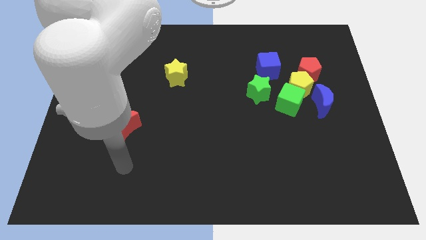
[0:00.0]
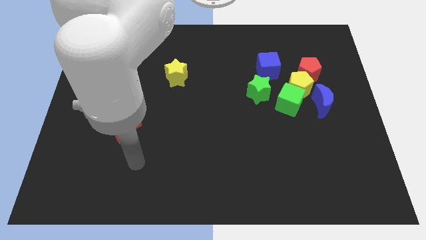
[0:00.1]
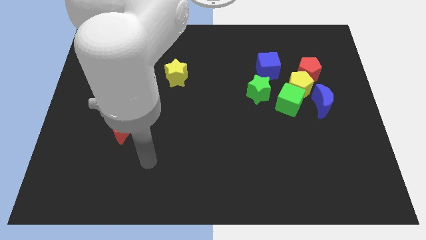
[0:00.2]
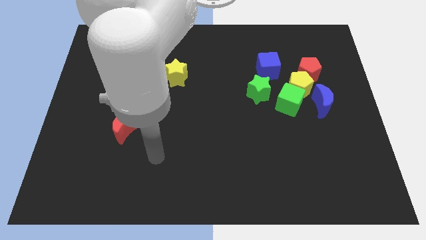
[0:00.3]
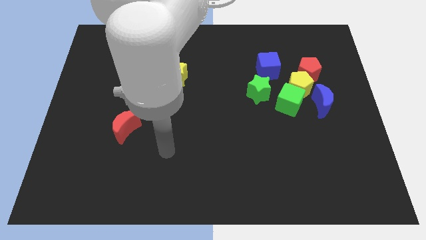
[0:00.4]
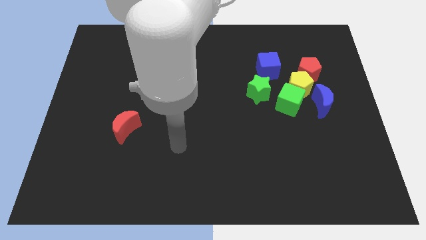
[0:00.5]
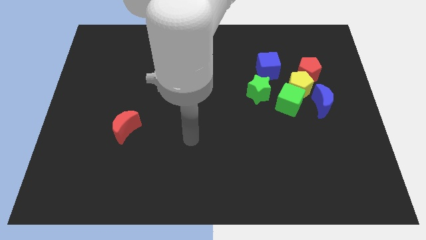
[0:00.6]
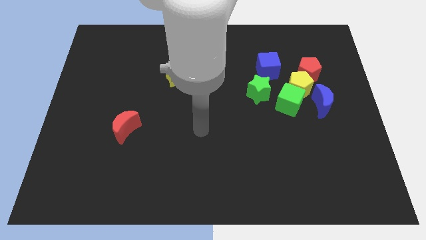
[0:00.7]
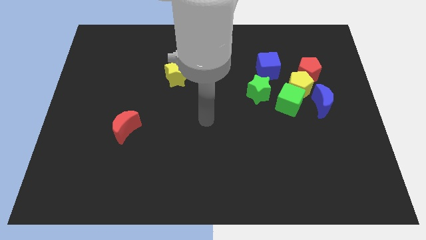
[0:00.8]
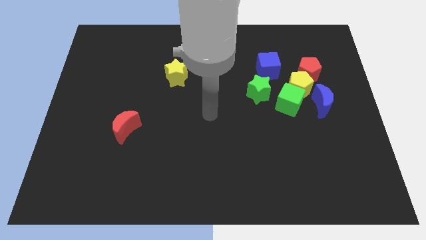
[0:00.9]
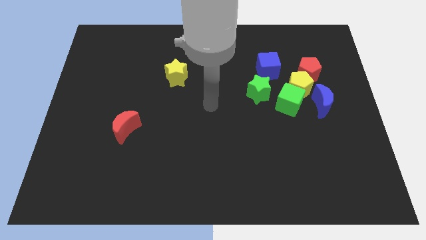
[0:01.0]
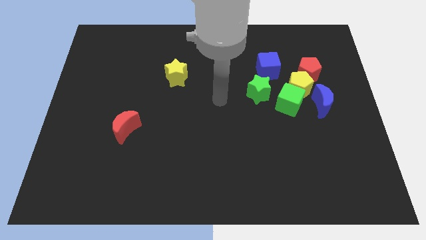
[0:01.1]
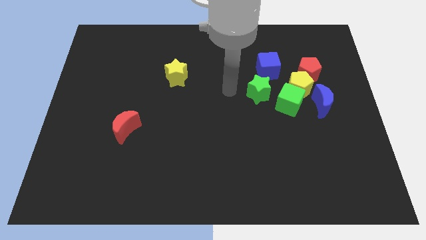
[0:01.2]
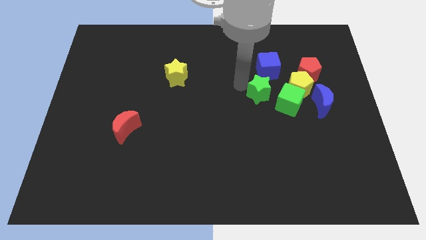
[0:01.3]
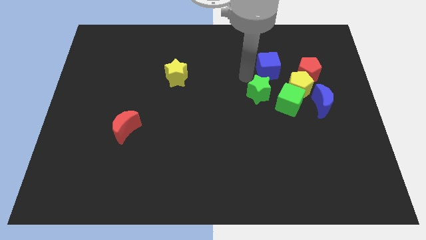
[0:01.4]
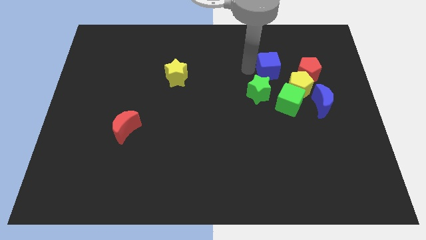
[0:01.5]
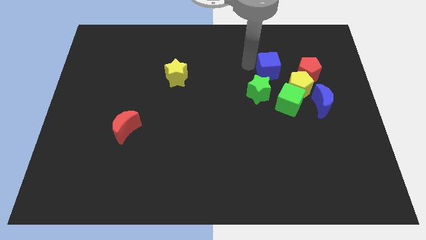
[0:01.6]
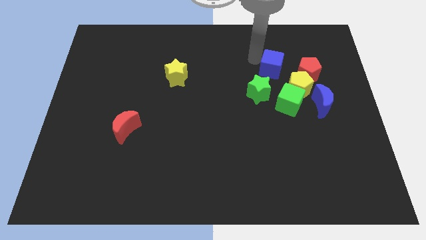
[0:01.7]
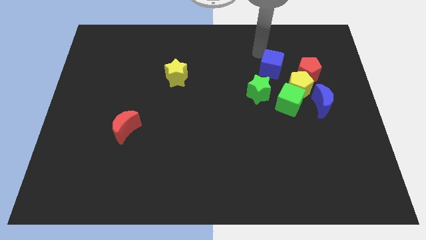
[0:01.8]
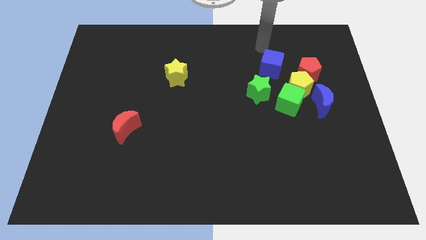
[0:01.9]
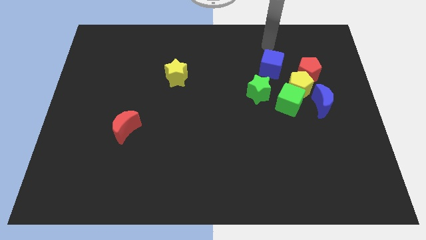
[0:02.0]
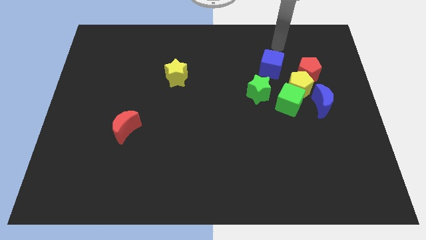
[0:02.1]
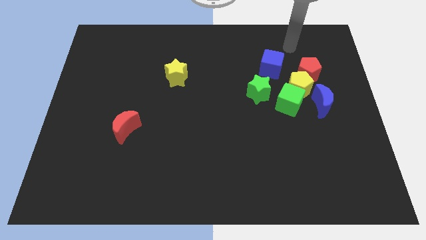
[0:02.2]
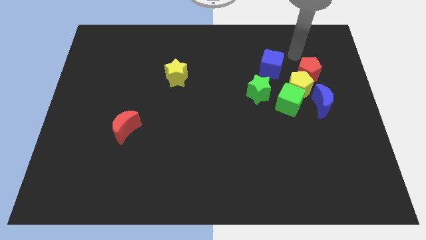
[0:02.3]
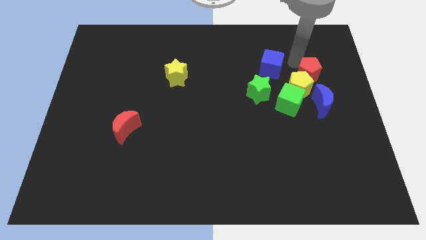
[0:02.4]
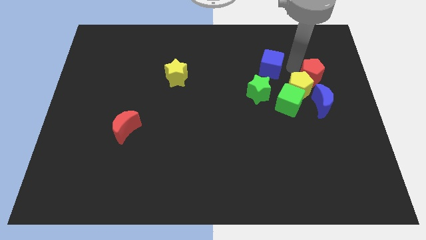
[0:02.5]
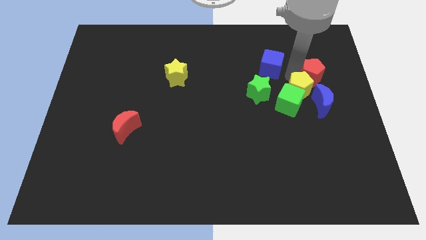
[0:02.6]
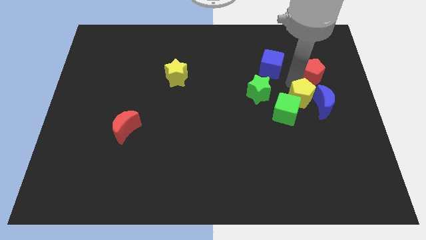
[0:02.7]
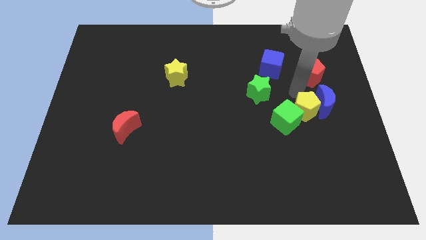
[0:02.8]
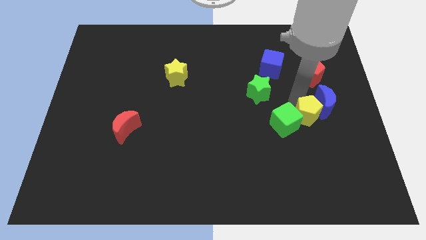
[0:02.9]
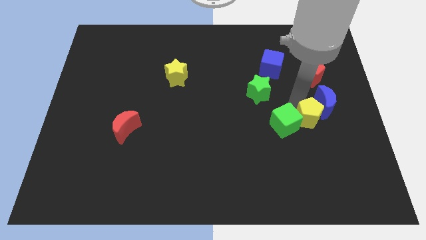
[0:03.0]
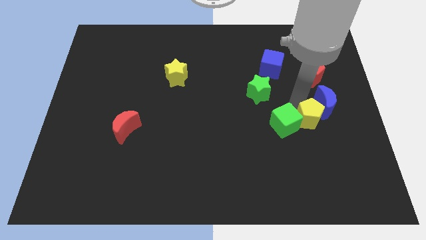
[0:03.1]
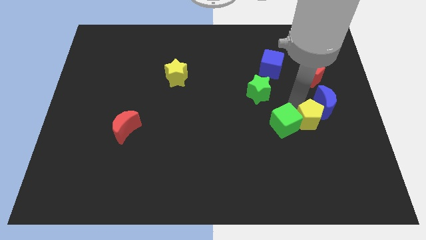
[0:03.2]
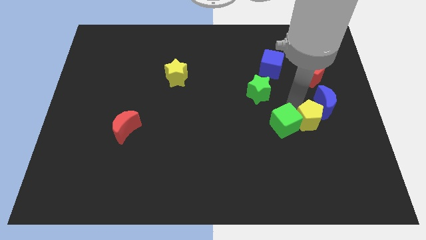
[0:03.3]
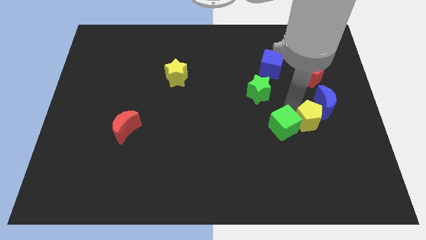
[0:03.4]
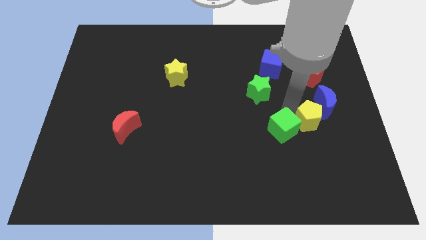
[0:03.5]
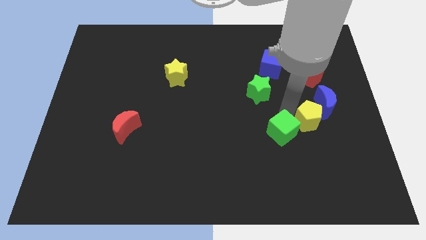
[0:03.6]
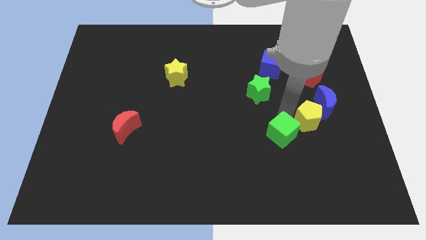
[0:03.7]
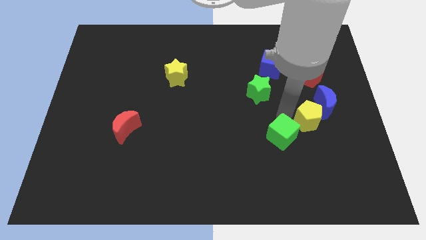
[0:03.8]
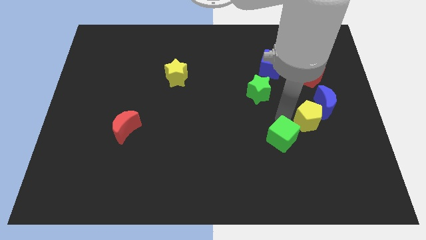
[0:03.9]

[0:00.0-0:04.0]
pull the green cube apart from the group

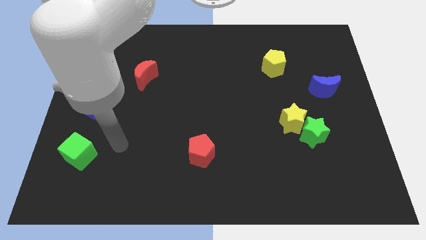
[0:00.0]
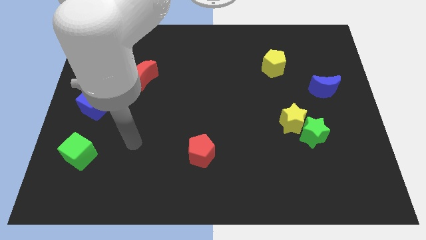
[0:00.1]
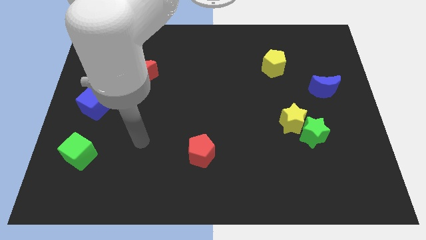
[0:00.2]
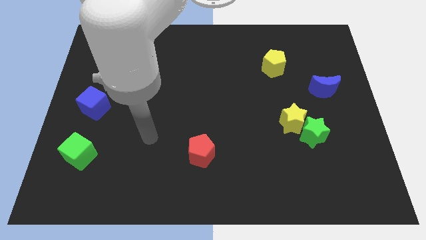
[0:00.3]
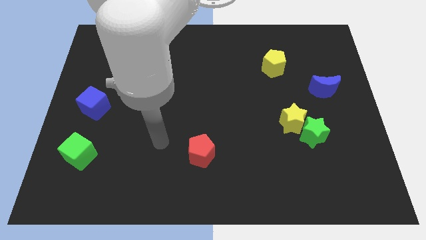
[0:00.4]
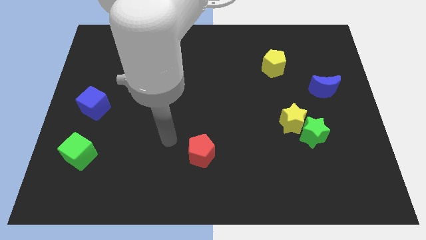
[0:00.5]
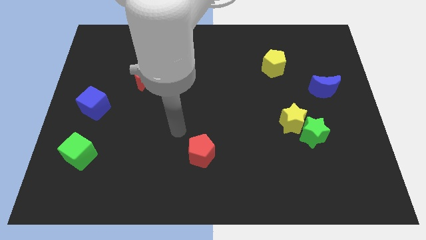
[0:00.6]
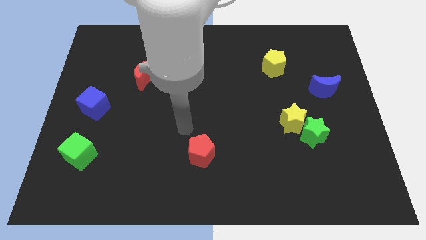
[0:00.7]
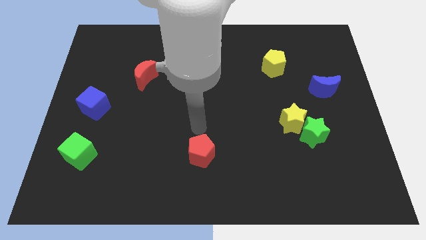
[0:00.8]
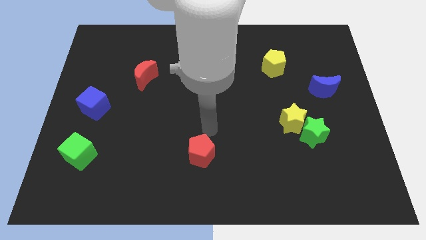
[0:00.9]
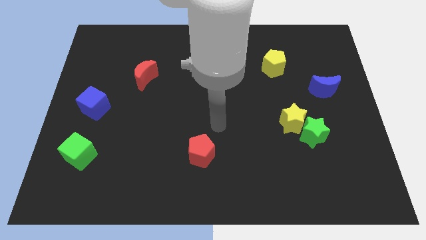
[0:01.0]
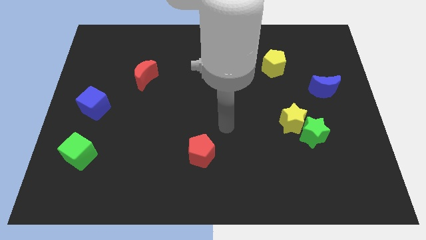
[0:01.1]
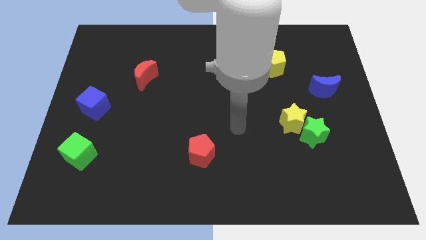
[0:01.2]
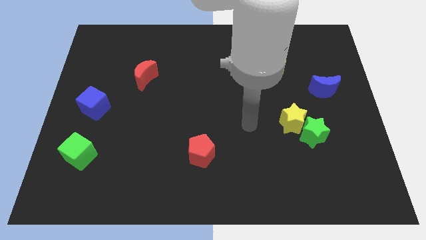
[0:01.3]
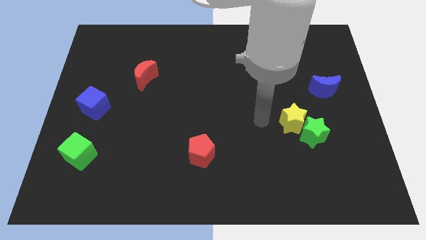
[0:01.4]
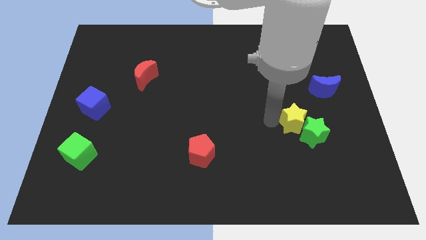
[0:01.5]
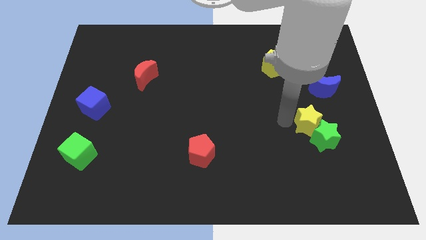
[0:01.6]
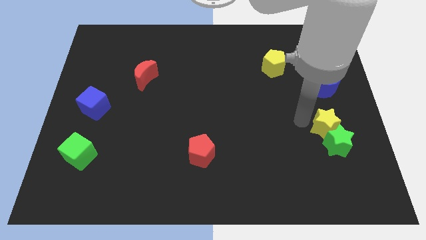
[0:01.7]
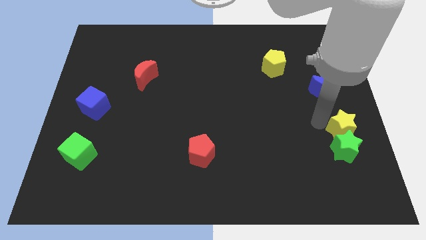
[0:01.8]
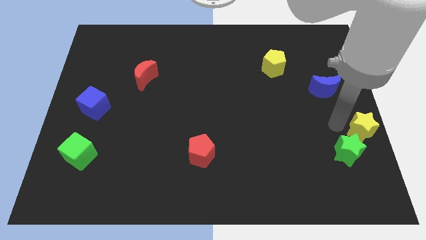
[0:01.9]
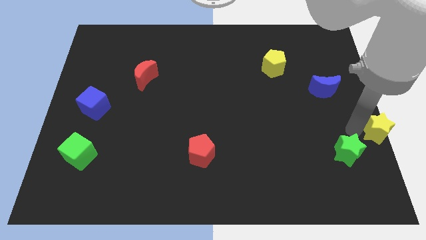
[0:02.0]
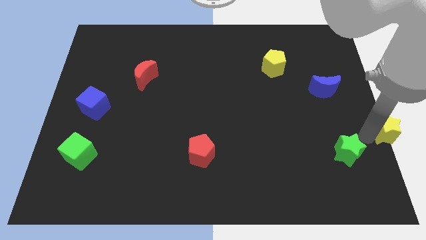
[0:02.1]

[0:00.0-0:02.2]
move the green star away from the yellow star

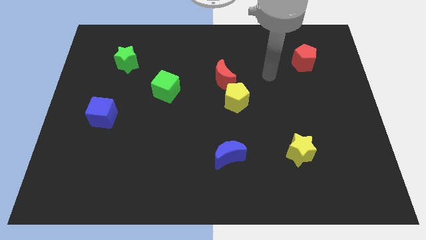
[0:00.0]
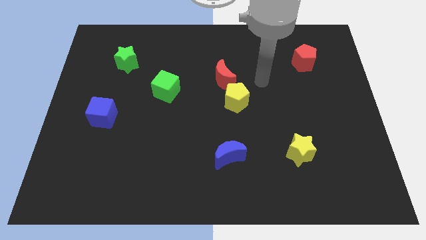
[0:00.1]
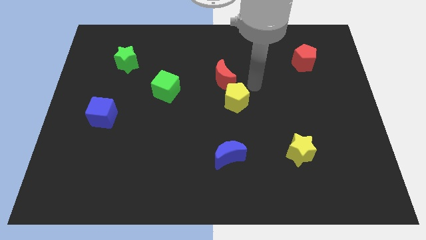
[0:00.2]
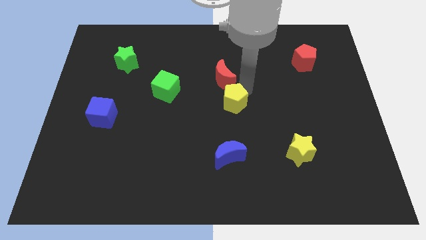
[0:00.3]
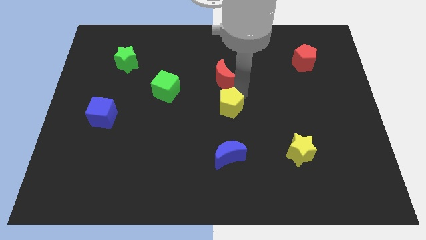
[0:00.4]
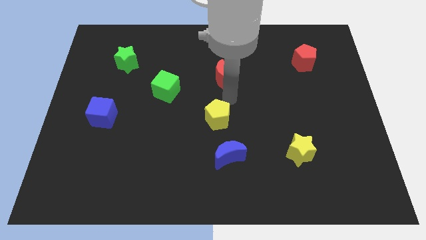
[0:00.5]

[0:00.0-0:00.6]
separate the red moon from the yellow pentagon

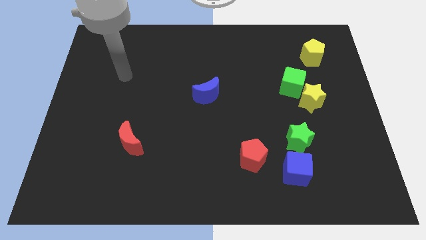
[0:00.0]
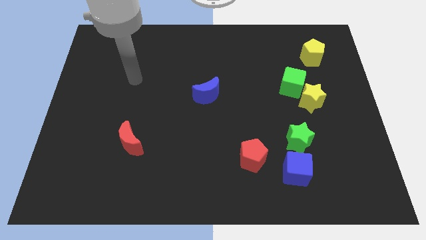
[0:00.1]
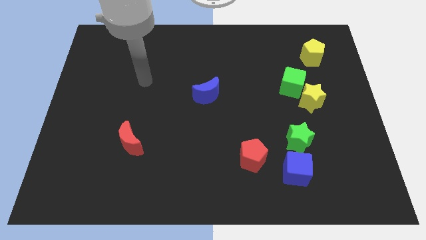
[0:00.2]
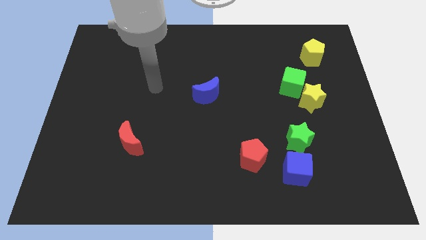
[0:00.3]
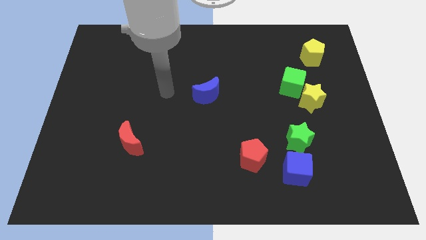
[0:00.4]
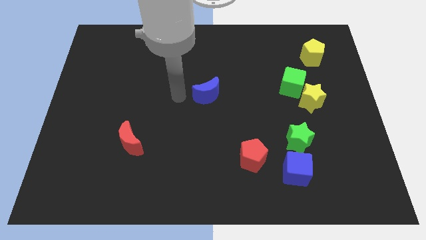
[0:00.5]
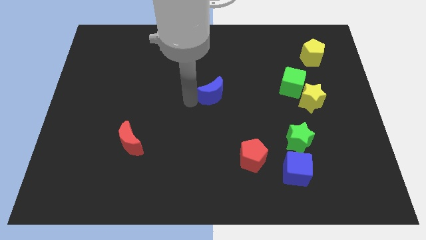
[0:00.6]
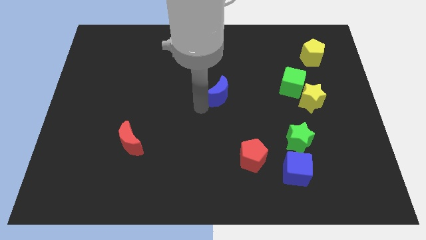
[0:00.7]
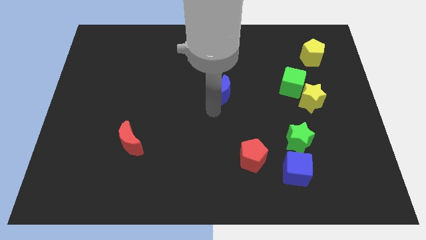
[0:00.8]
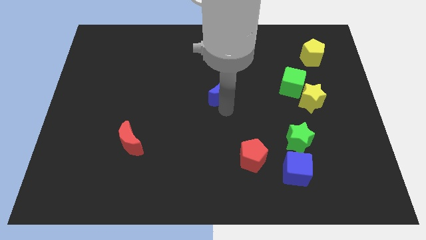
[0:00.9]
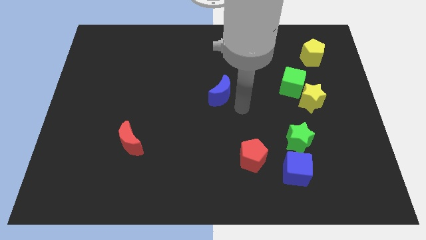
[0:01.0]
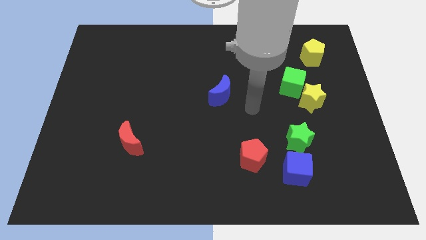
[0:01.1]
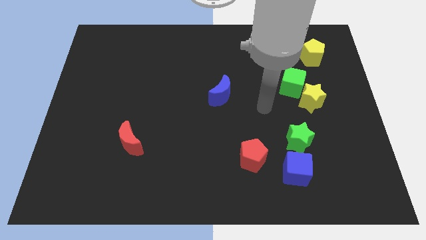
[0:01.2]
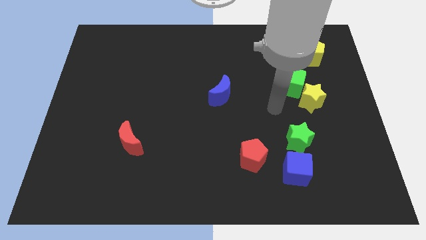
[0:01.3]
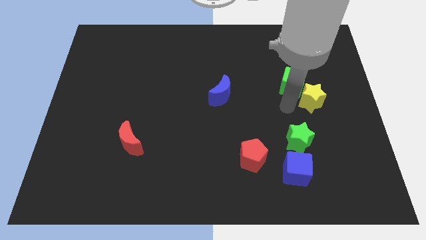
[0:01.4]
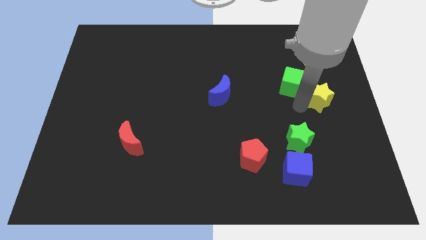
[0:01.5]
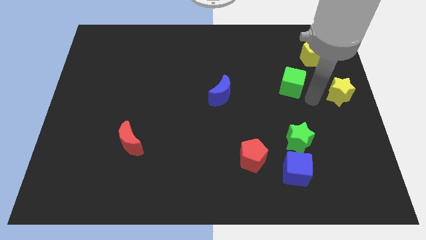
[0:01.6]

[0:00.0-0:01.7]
separate the green cube from the yellow star

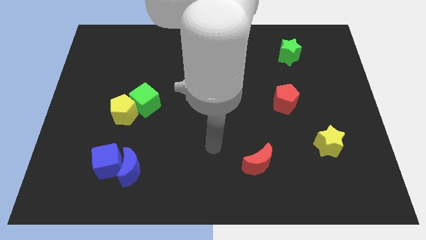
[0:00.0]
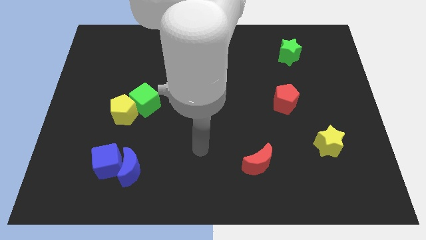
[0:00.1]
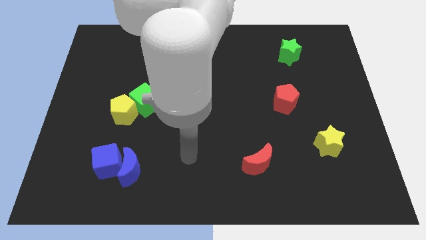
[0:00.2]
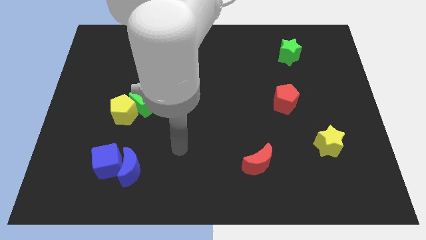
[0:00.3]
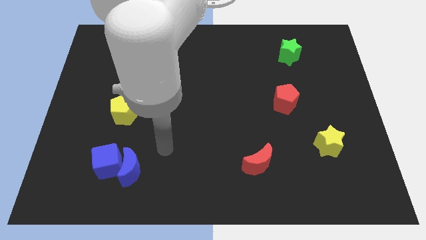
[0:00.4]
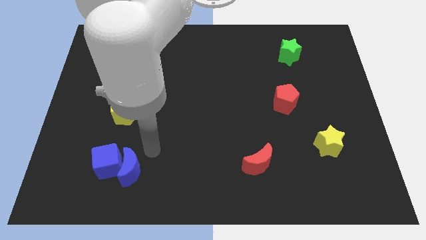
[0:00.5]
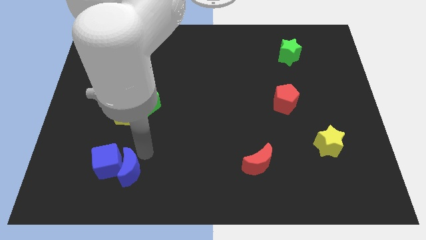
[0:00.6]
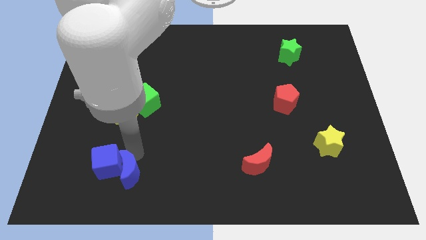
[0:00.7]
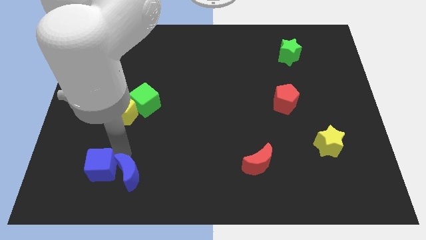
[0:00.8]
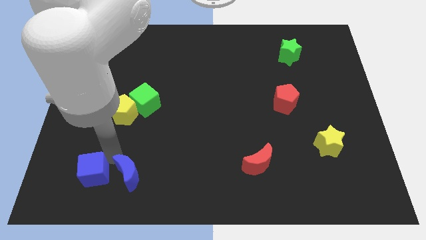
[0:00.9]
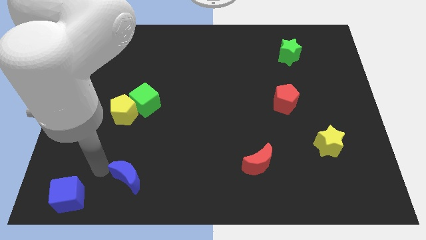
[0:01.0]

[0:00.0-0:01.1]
move the blue moon away from the blue cube
